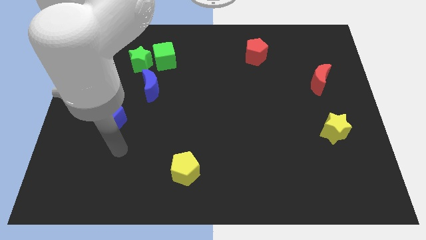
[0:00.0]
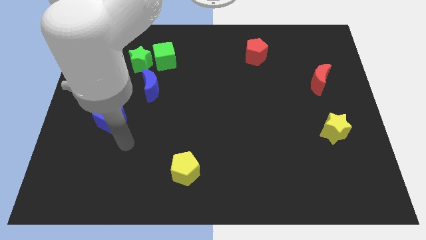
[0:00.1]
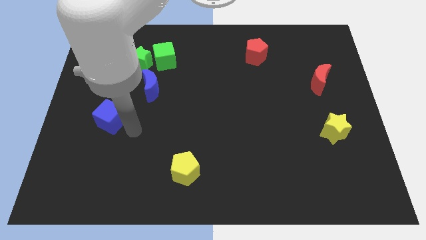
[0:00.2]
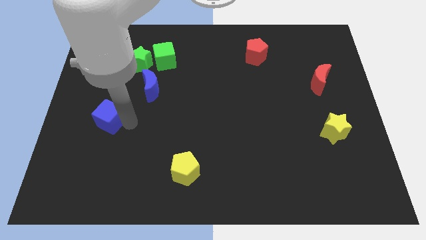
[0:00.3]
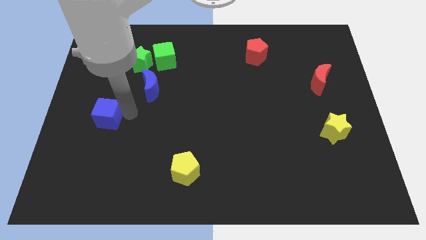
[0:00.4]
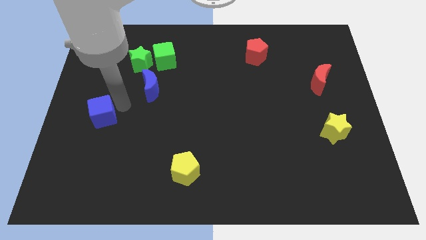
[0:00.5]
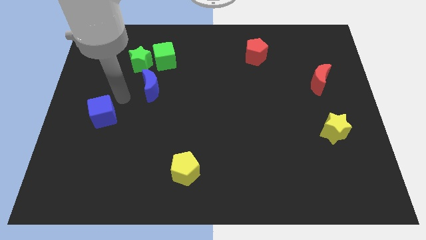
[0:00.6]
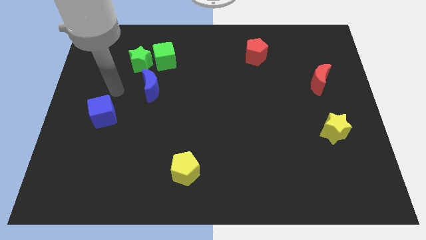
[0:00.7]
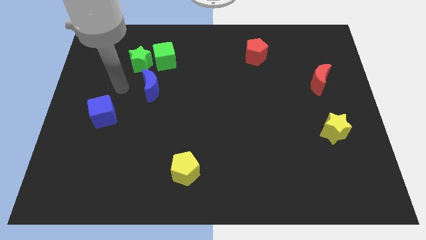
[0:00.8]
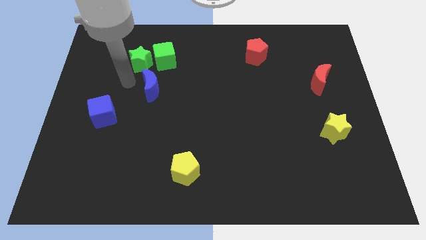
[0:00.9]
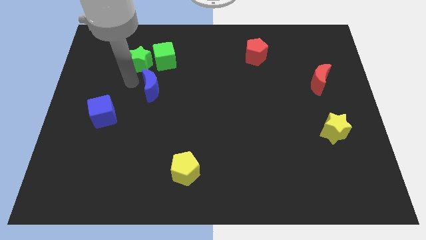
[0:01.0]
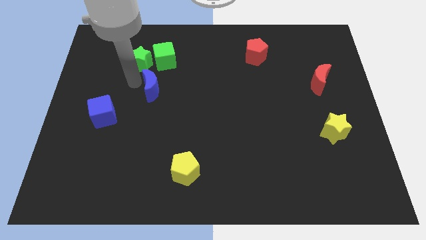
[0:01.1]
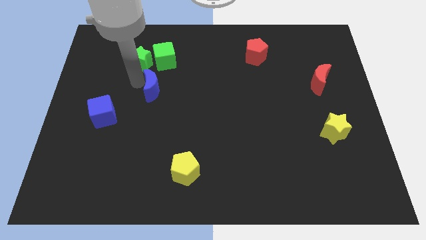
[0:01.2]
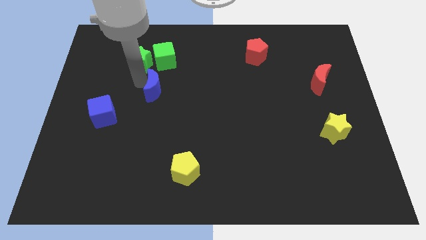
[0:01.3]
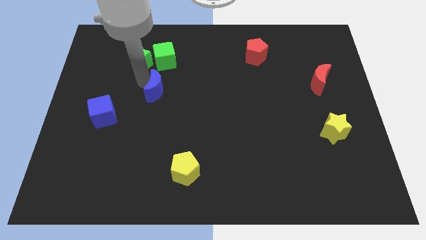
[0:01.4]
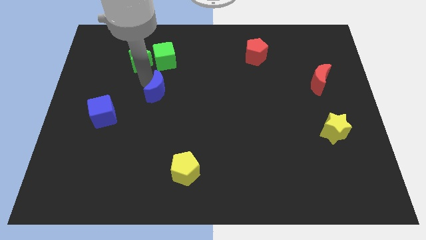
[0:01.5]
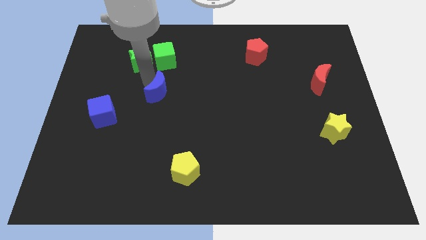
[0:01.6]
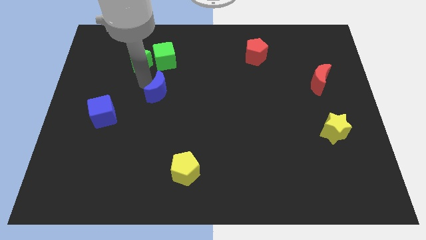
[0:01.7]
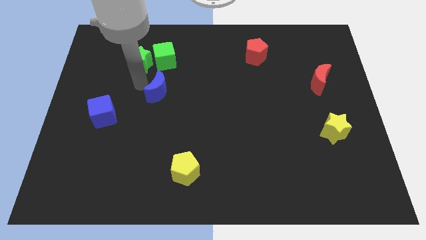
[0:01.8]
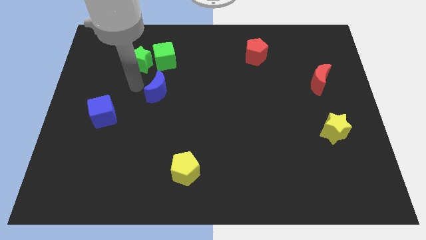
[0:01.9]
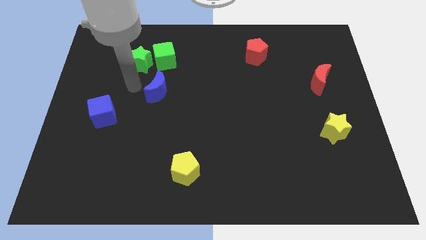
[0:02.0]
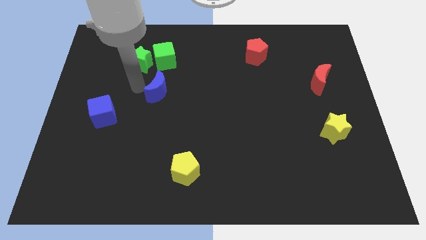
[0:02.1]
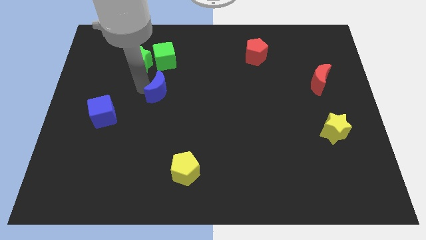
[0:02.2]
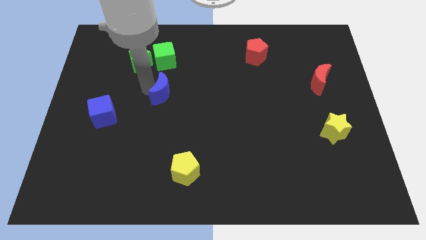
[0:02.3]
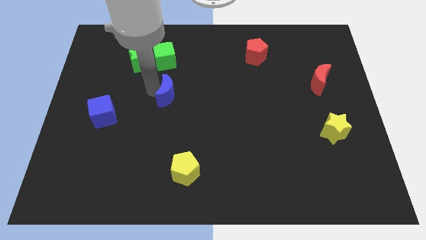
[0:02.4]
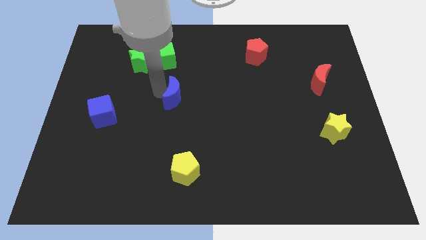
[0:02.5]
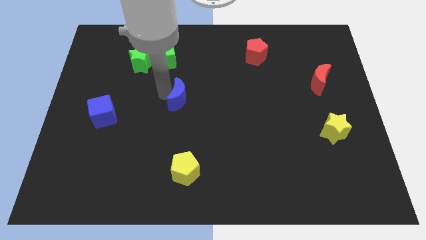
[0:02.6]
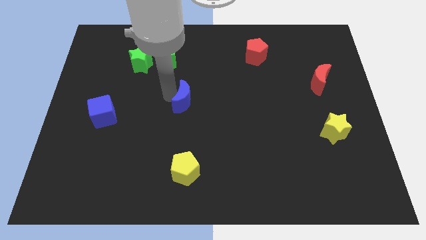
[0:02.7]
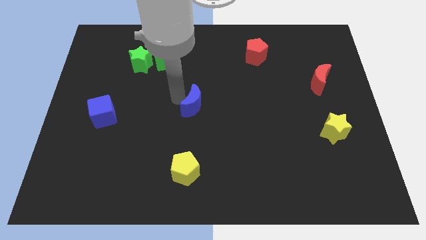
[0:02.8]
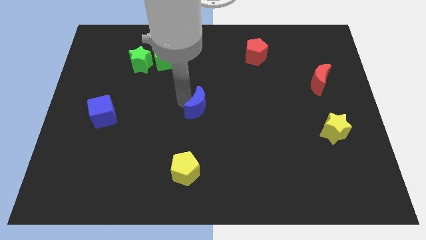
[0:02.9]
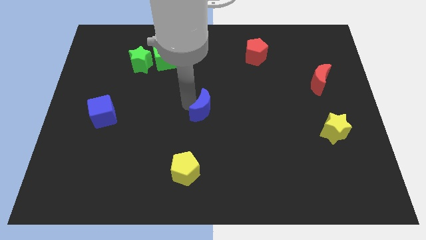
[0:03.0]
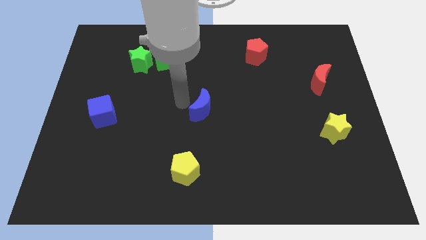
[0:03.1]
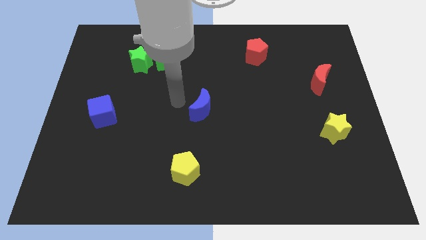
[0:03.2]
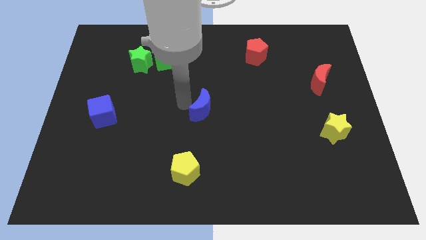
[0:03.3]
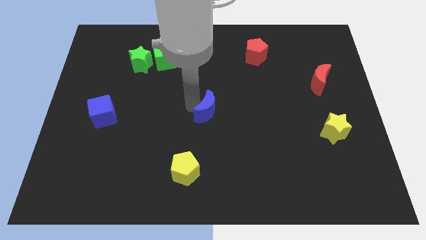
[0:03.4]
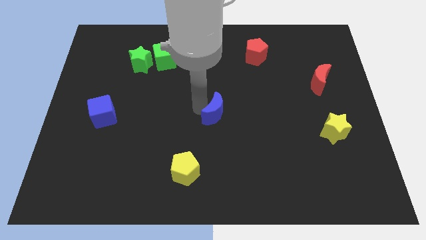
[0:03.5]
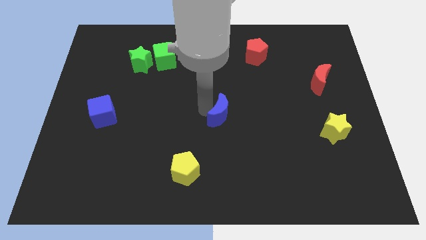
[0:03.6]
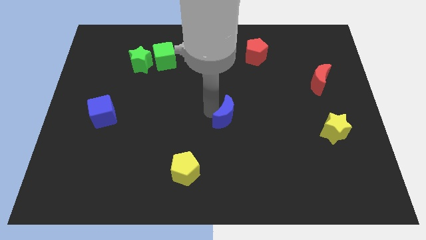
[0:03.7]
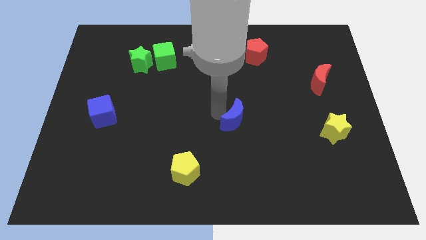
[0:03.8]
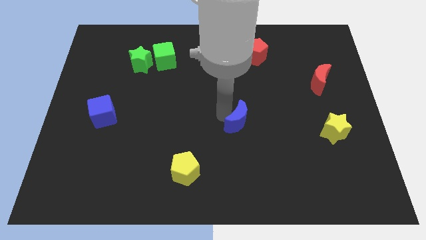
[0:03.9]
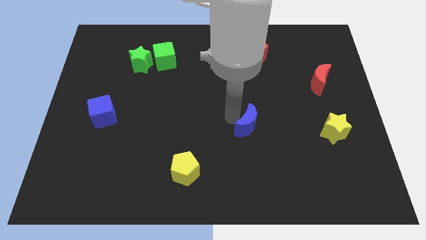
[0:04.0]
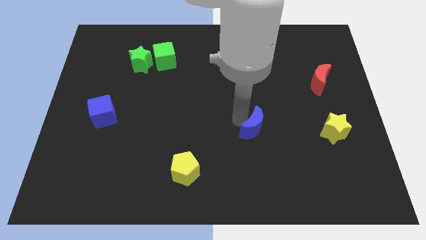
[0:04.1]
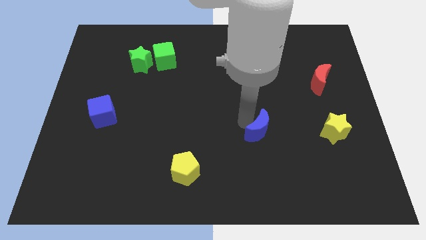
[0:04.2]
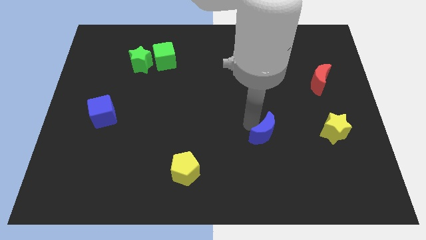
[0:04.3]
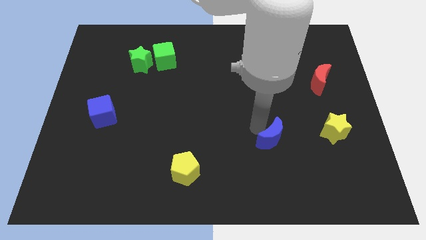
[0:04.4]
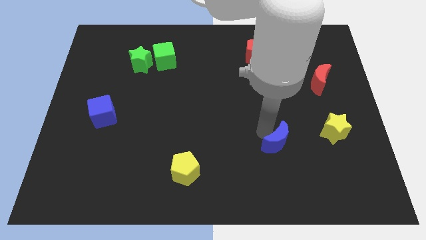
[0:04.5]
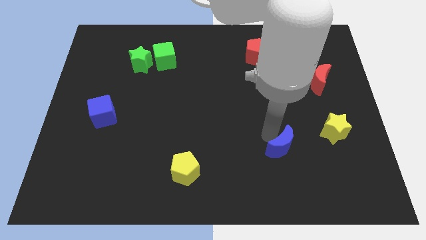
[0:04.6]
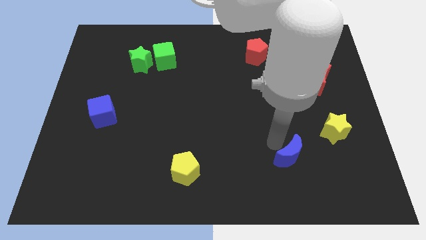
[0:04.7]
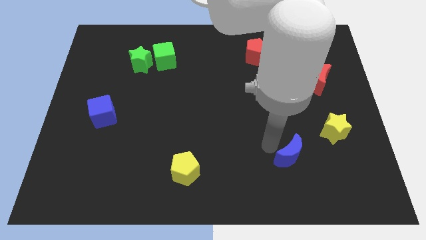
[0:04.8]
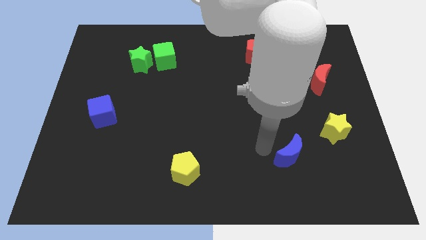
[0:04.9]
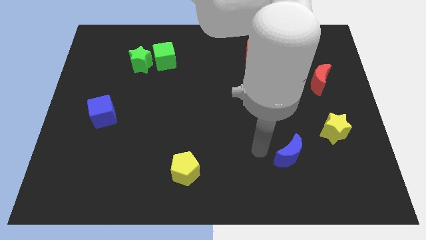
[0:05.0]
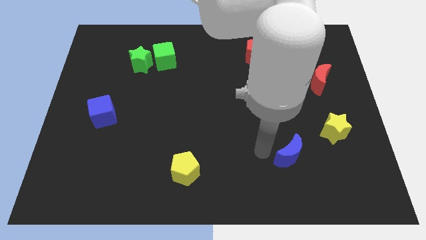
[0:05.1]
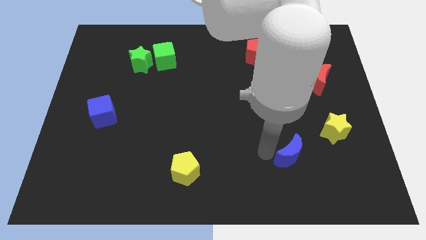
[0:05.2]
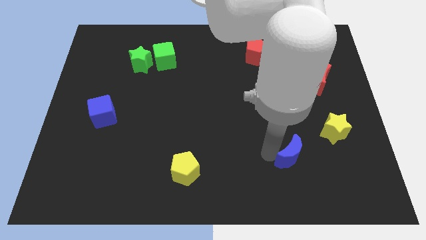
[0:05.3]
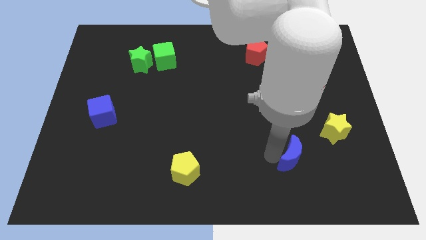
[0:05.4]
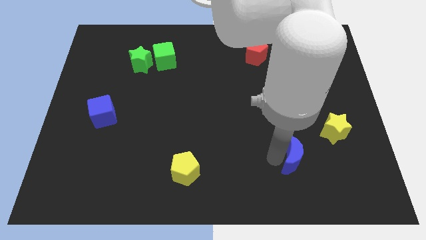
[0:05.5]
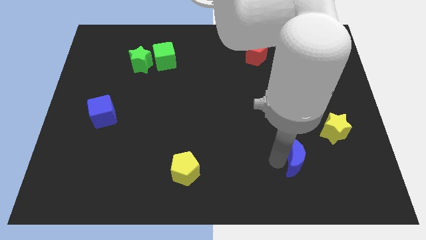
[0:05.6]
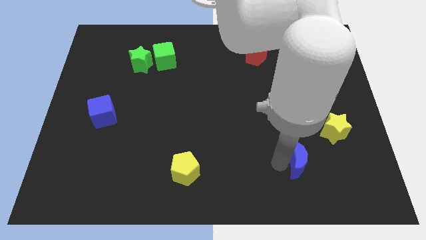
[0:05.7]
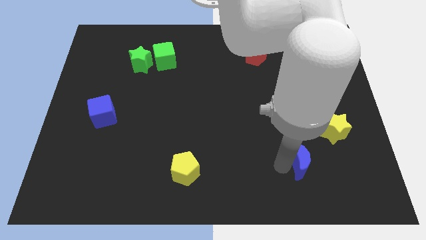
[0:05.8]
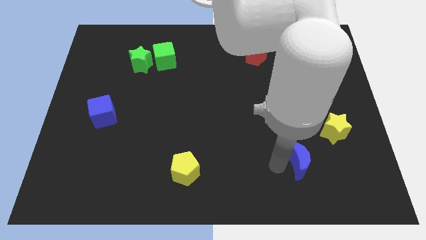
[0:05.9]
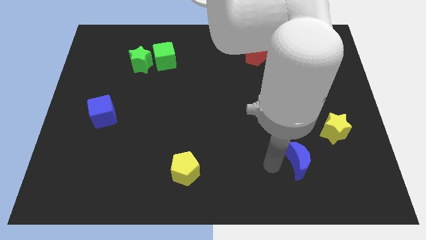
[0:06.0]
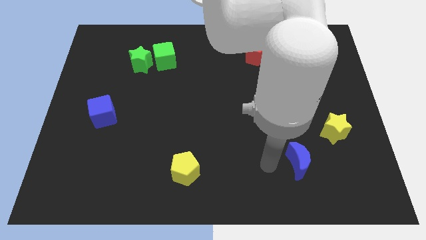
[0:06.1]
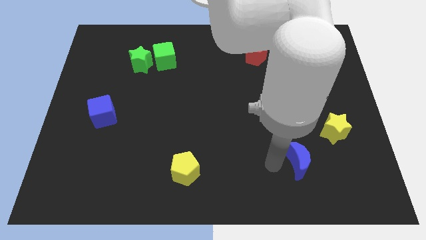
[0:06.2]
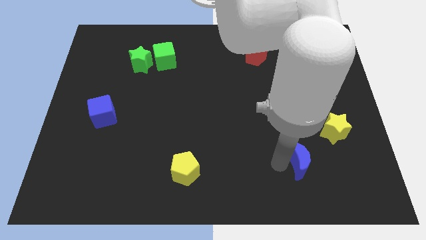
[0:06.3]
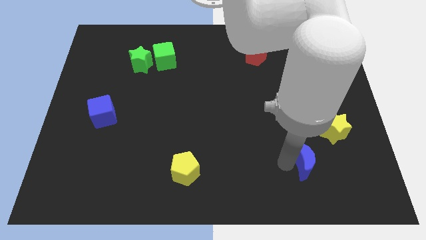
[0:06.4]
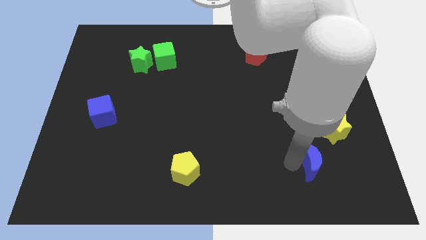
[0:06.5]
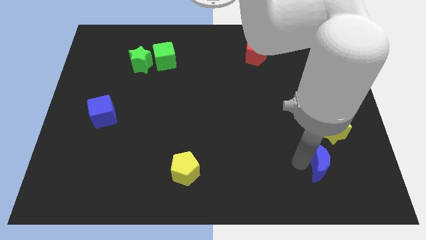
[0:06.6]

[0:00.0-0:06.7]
slide the blue moon to the bottom of the yellow star
